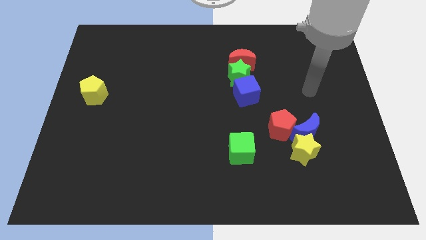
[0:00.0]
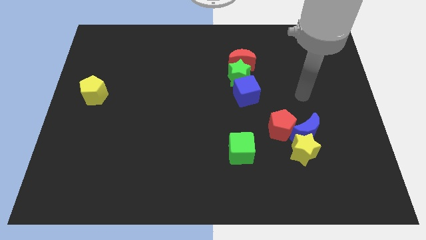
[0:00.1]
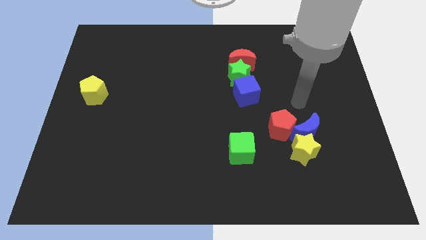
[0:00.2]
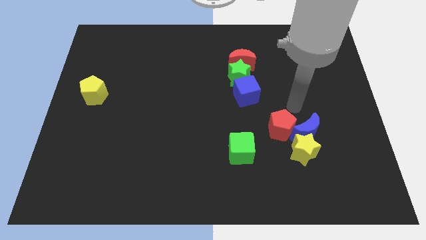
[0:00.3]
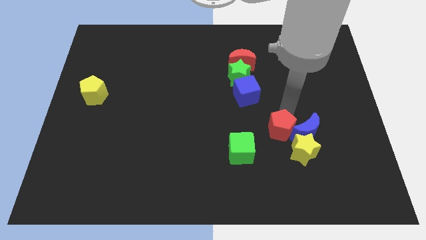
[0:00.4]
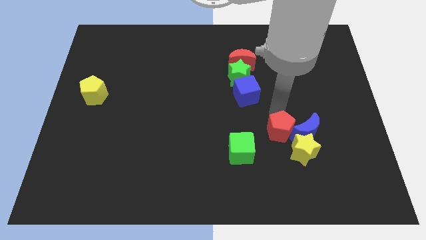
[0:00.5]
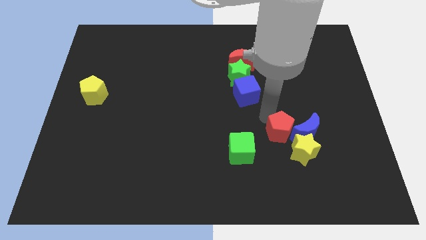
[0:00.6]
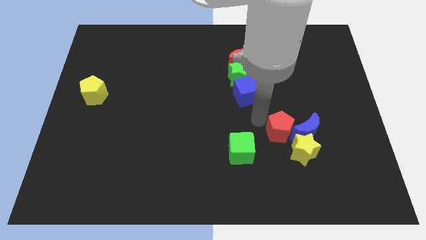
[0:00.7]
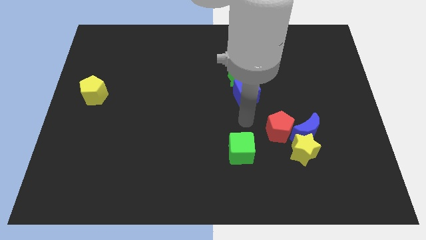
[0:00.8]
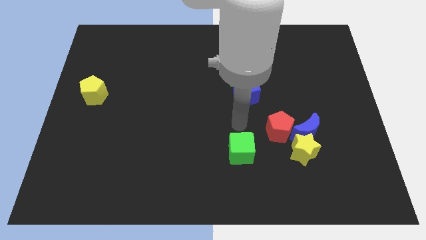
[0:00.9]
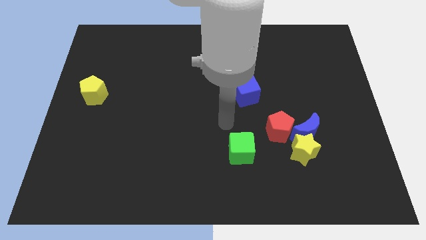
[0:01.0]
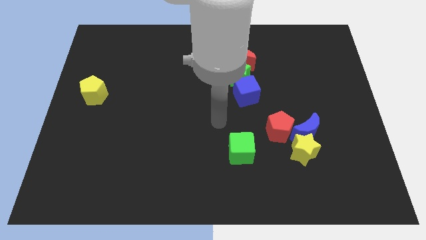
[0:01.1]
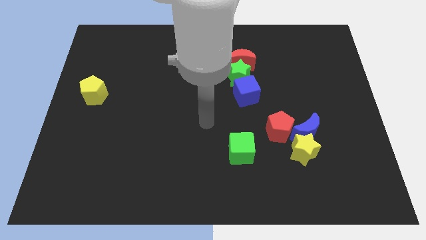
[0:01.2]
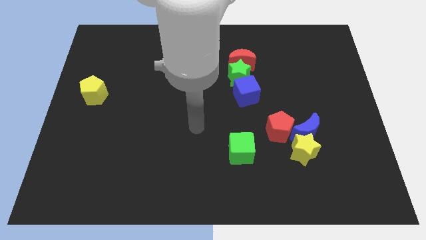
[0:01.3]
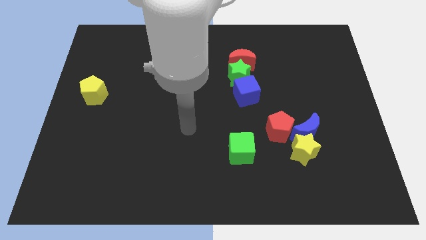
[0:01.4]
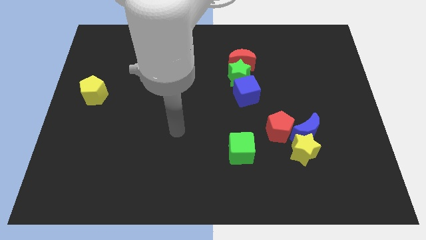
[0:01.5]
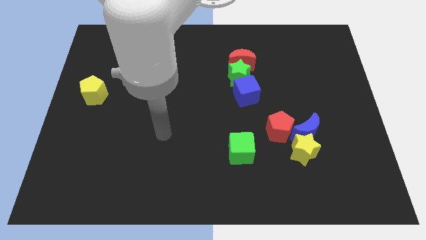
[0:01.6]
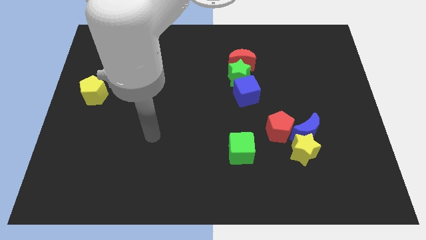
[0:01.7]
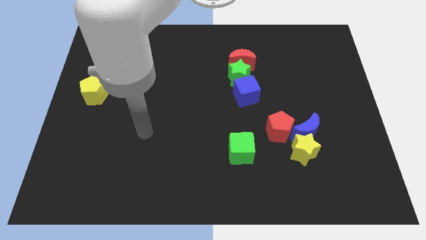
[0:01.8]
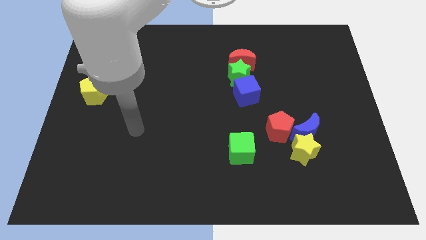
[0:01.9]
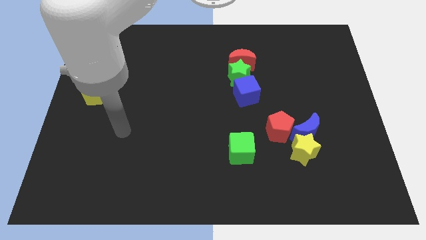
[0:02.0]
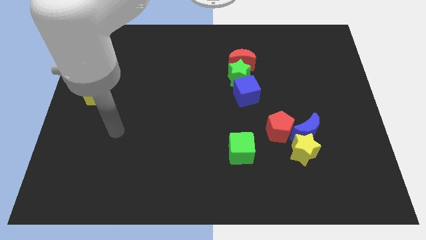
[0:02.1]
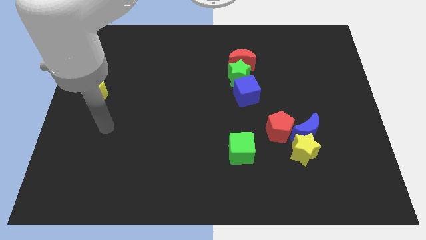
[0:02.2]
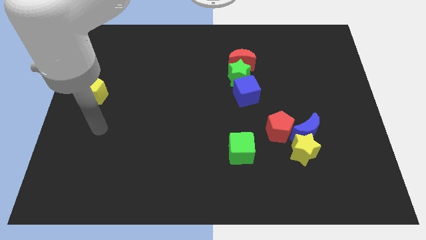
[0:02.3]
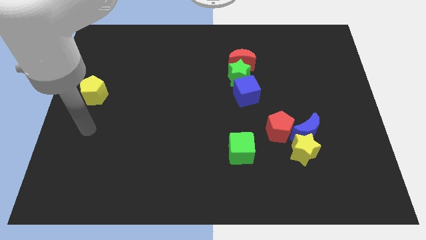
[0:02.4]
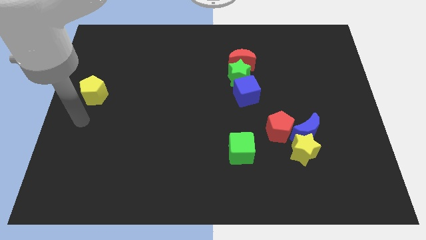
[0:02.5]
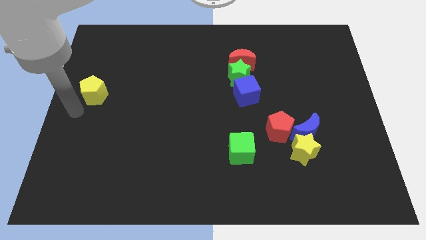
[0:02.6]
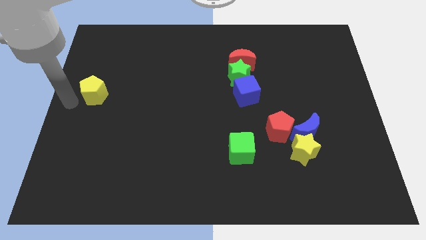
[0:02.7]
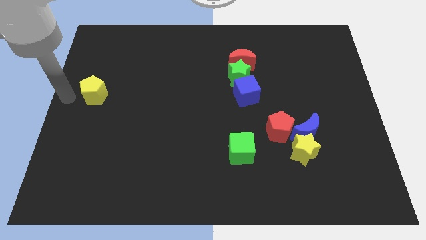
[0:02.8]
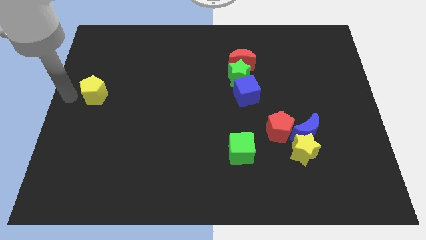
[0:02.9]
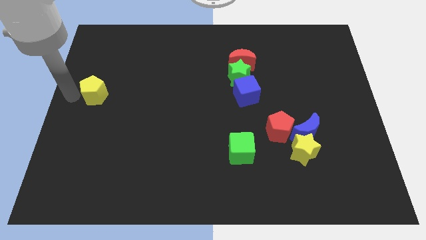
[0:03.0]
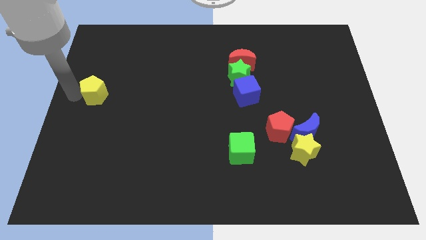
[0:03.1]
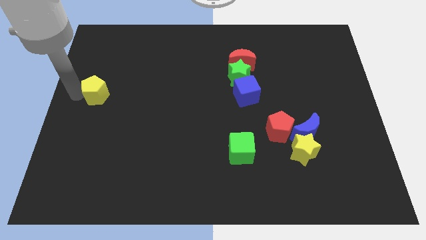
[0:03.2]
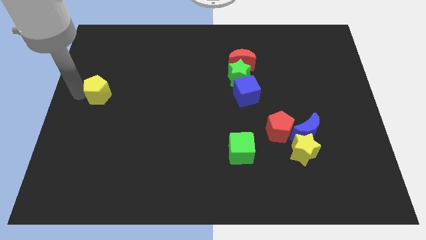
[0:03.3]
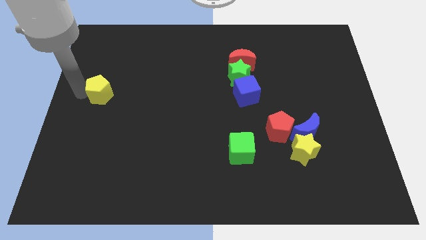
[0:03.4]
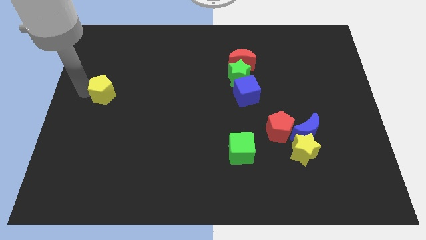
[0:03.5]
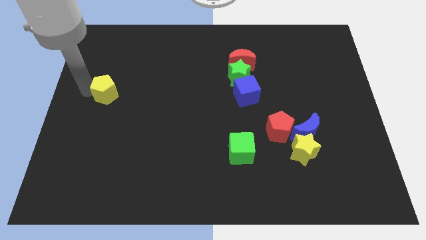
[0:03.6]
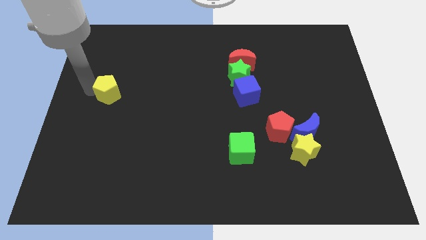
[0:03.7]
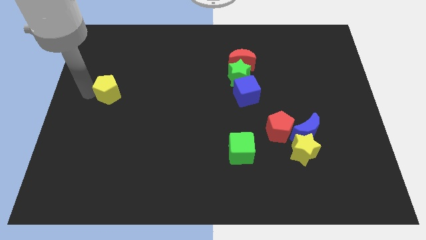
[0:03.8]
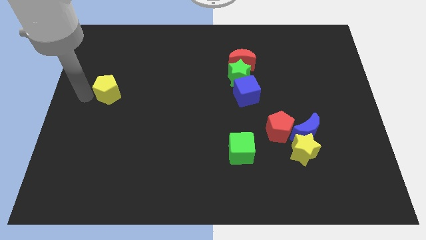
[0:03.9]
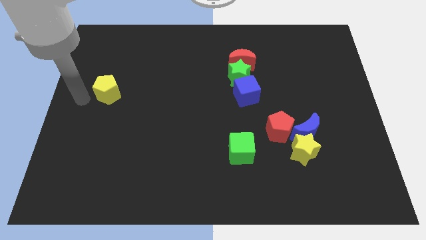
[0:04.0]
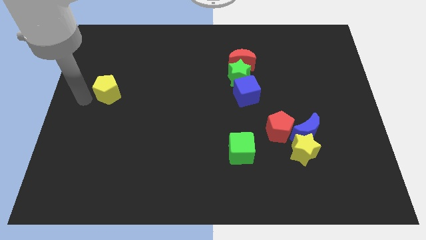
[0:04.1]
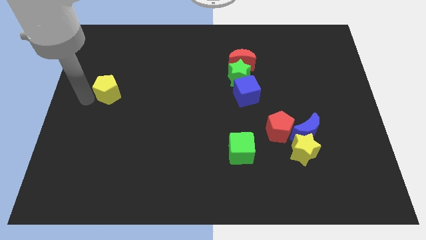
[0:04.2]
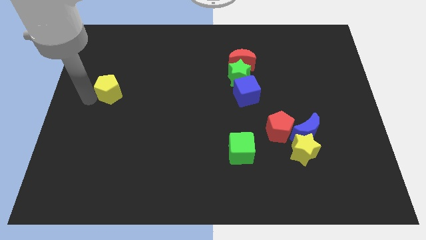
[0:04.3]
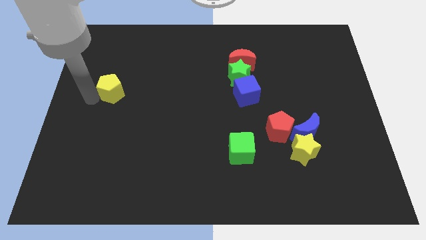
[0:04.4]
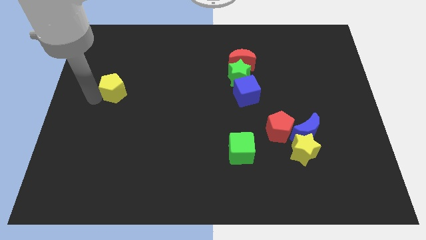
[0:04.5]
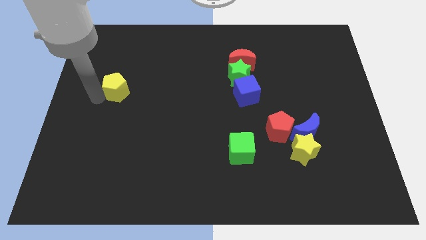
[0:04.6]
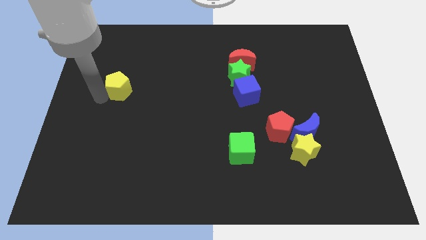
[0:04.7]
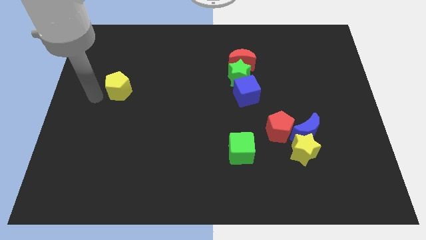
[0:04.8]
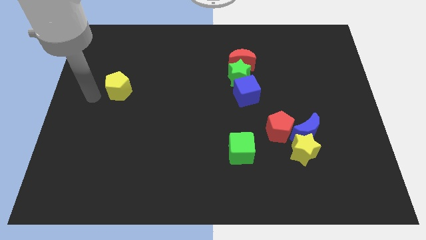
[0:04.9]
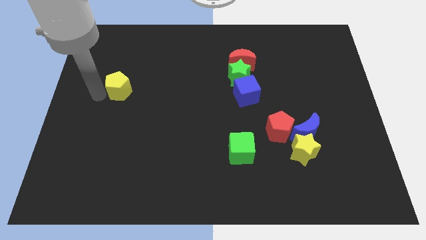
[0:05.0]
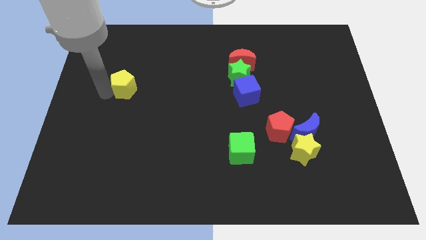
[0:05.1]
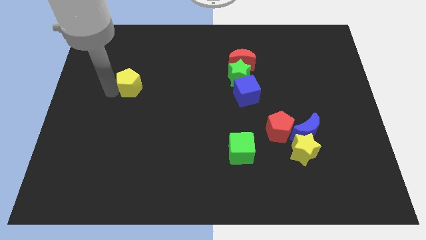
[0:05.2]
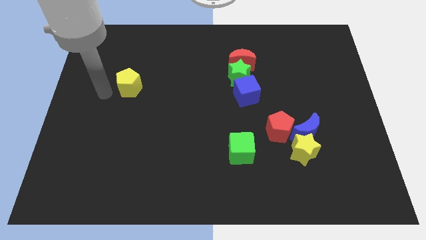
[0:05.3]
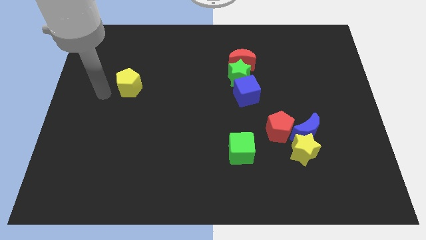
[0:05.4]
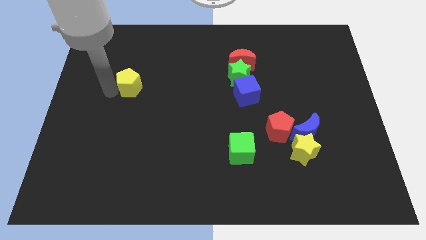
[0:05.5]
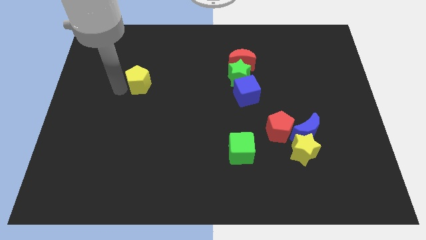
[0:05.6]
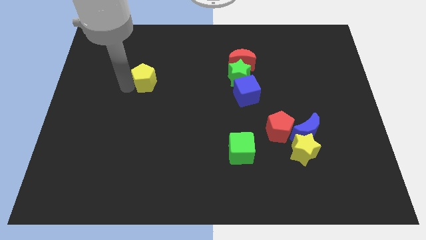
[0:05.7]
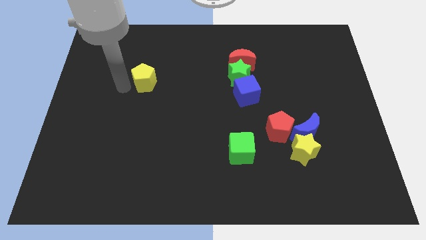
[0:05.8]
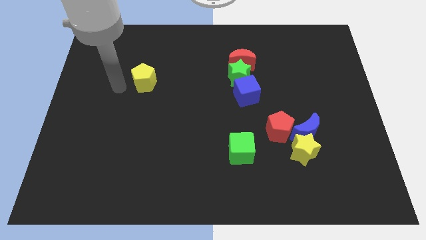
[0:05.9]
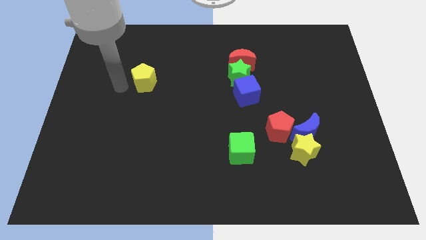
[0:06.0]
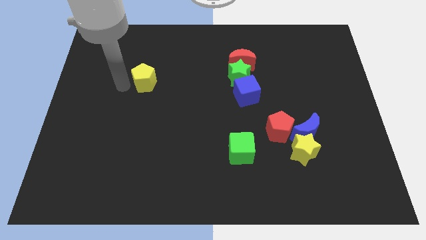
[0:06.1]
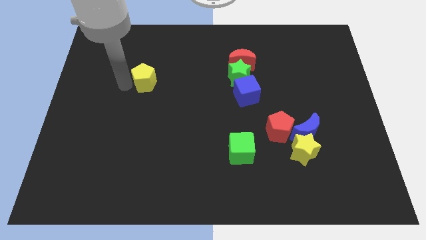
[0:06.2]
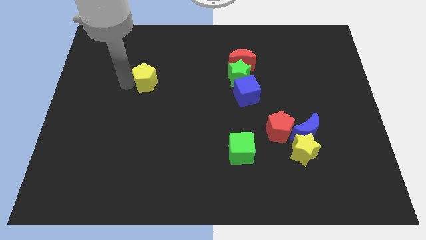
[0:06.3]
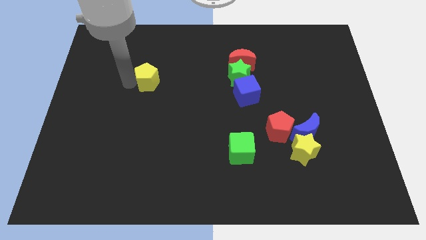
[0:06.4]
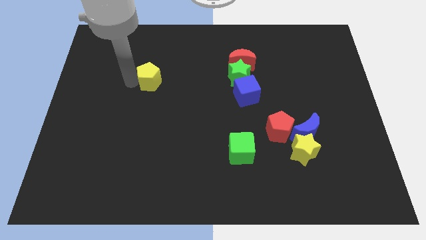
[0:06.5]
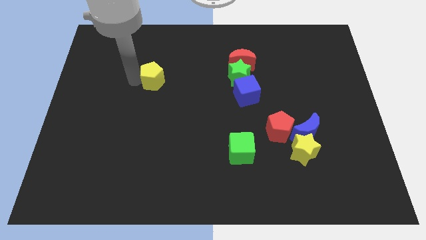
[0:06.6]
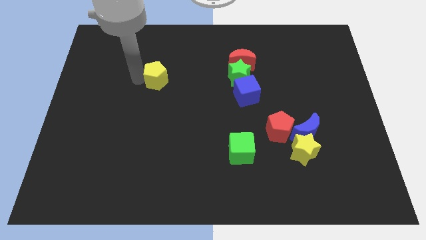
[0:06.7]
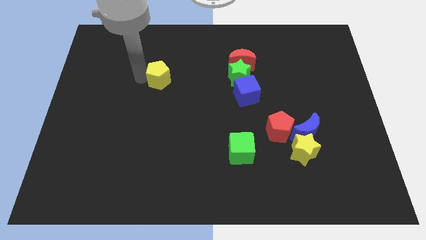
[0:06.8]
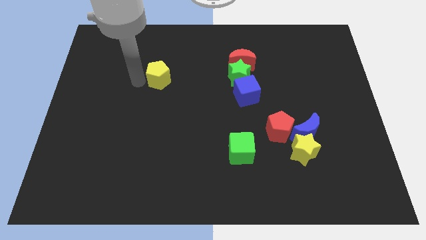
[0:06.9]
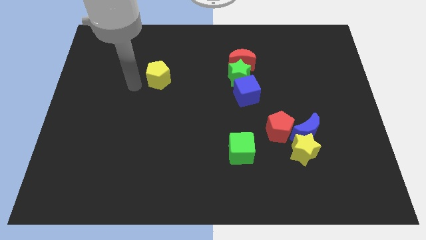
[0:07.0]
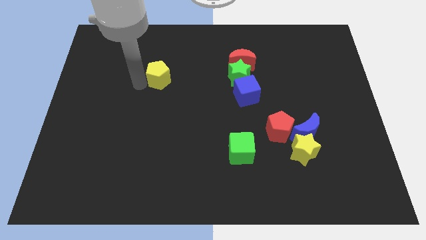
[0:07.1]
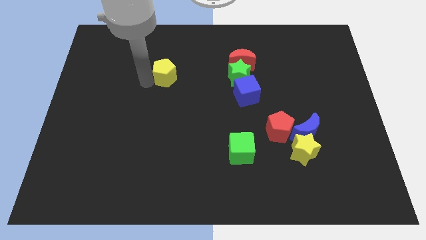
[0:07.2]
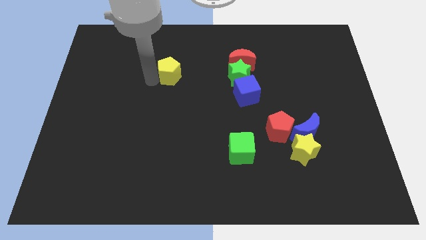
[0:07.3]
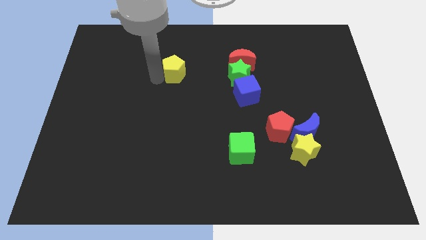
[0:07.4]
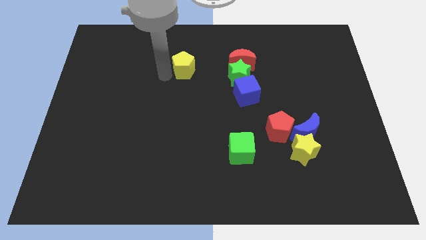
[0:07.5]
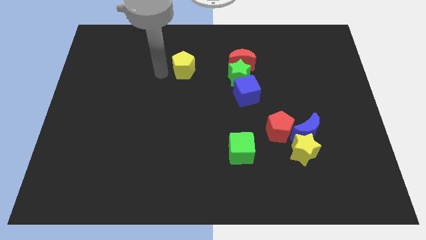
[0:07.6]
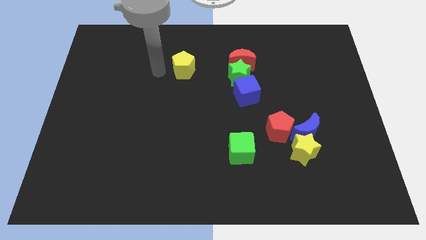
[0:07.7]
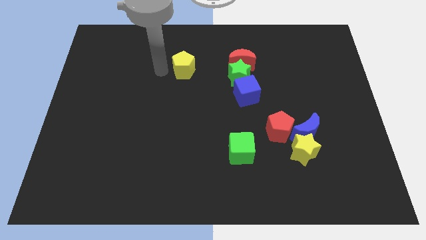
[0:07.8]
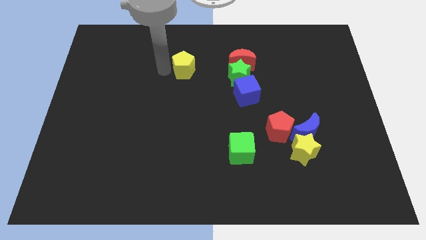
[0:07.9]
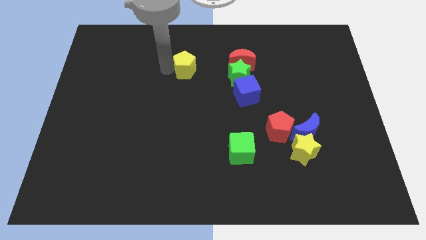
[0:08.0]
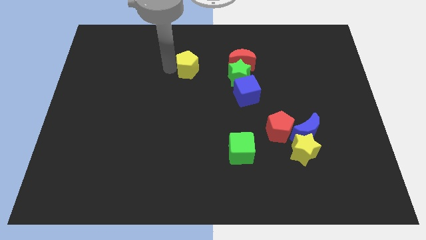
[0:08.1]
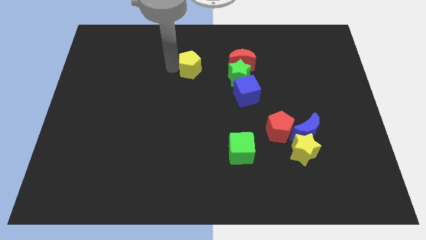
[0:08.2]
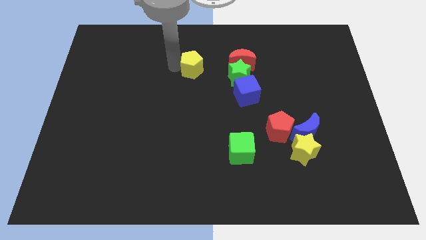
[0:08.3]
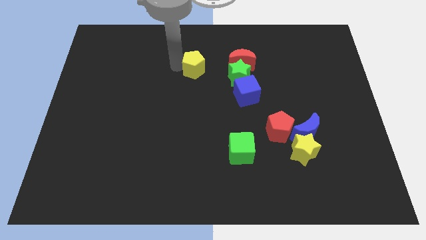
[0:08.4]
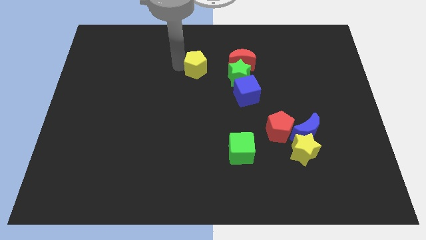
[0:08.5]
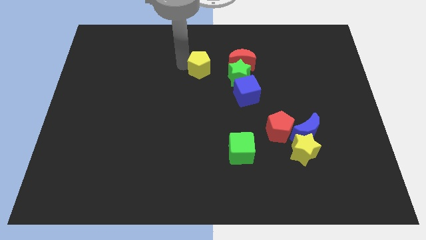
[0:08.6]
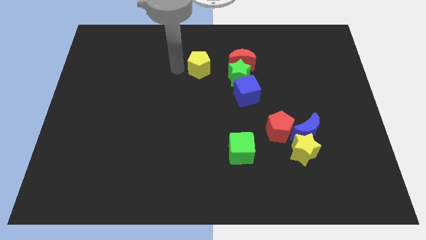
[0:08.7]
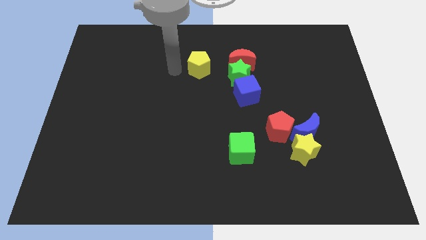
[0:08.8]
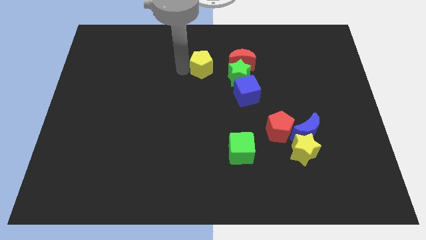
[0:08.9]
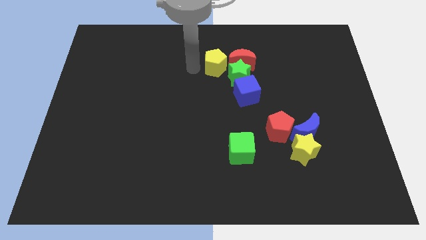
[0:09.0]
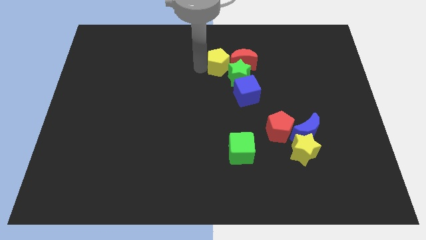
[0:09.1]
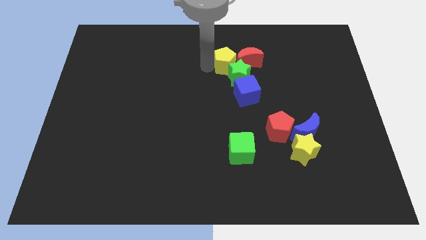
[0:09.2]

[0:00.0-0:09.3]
slide the yellow pentagon towards the red moon
